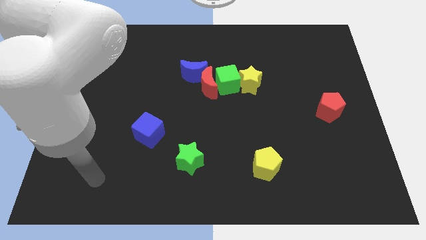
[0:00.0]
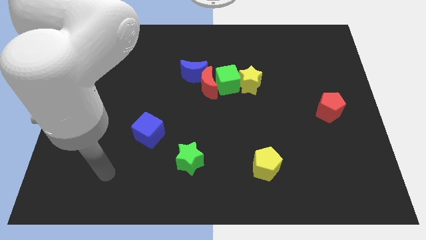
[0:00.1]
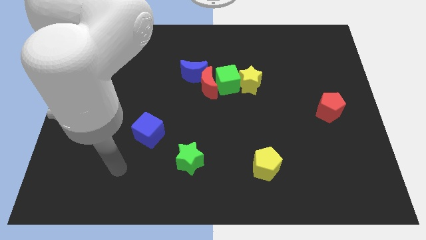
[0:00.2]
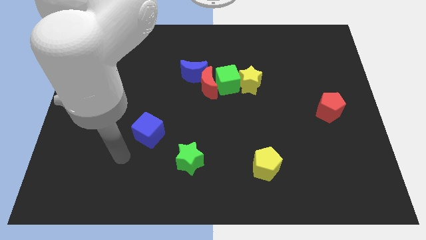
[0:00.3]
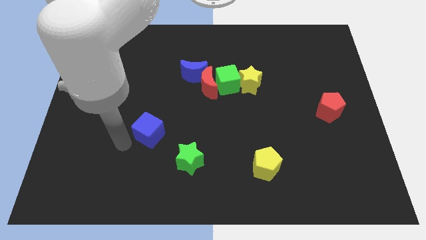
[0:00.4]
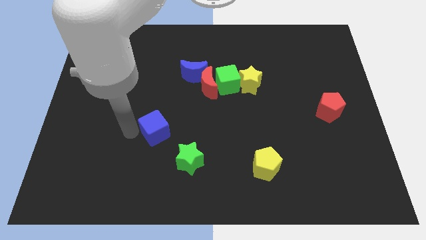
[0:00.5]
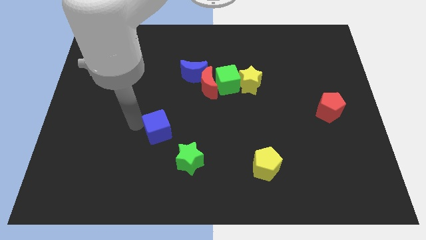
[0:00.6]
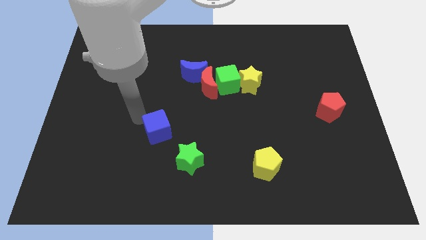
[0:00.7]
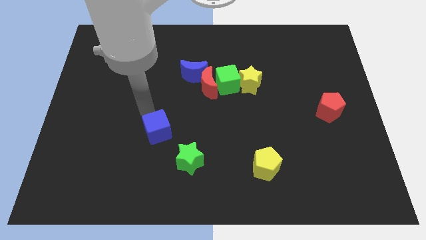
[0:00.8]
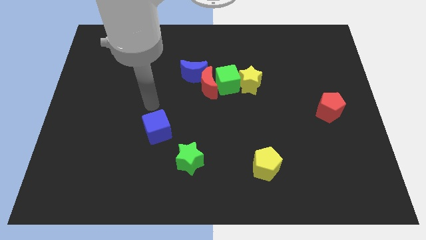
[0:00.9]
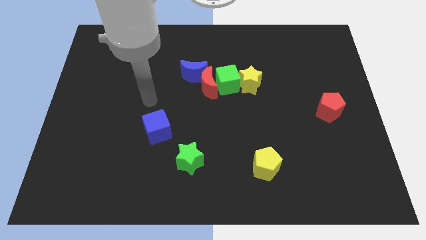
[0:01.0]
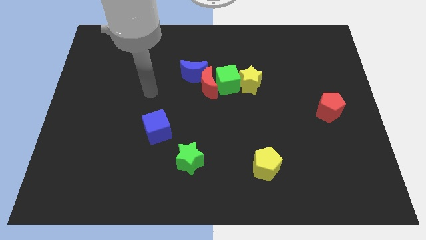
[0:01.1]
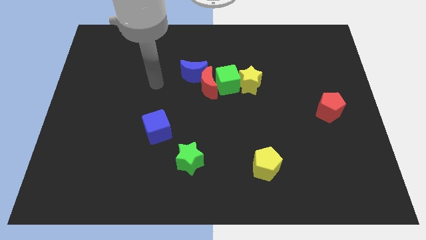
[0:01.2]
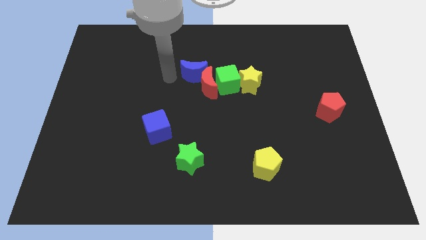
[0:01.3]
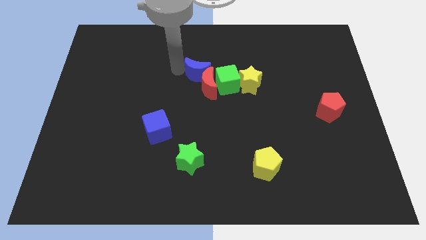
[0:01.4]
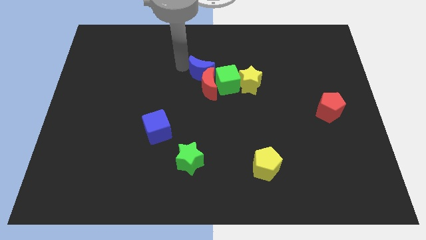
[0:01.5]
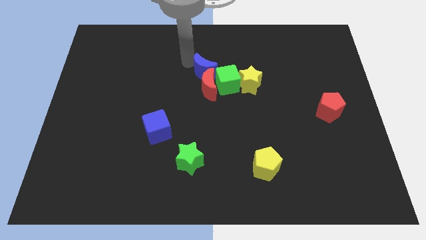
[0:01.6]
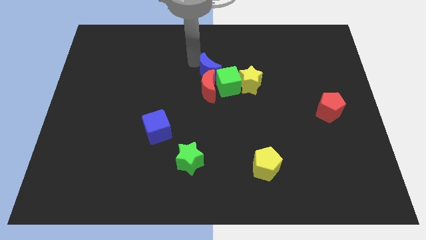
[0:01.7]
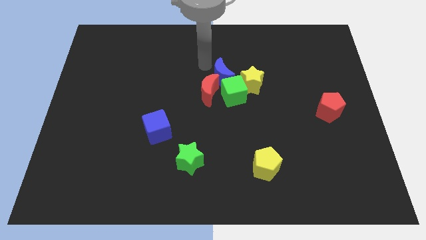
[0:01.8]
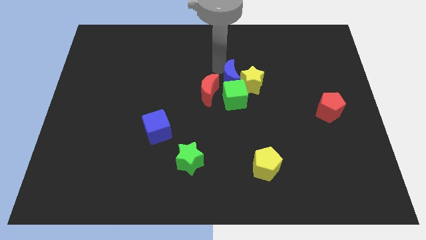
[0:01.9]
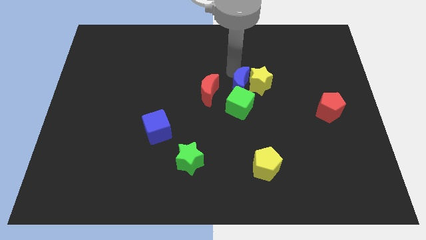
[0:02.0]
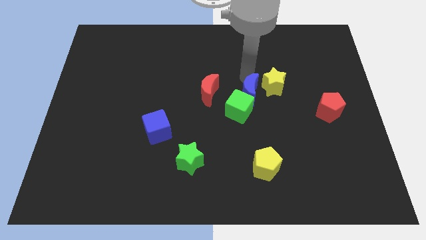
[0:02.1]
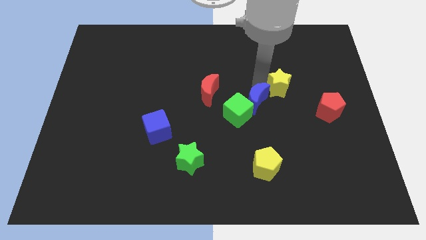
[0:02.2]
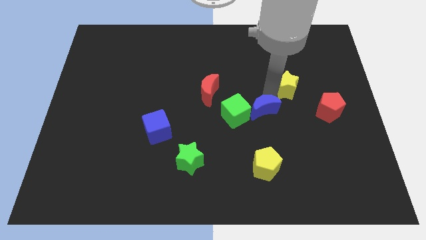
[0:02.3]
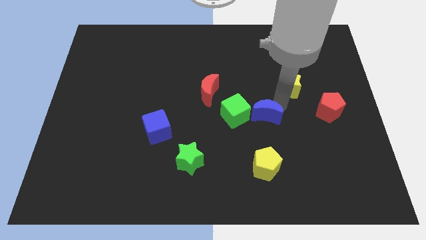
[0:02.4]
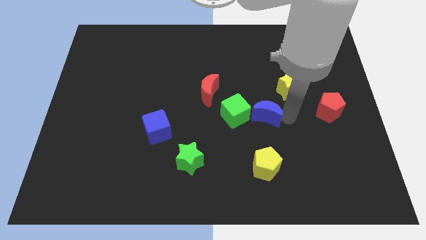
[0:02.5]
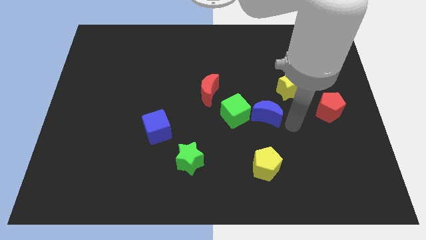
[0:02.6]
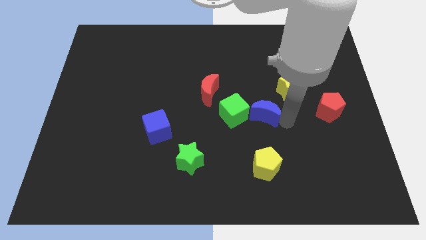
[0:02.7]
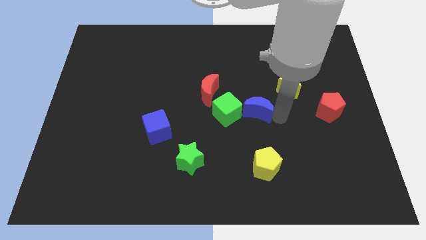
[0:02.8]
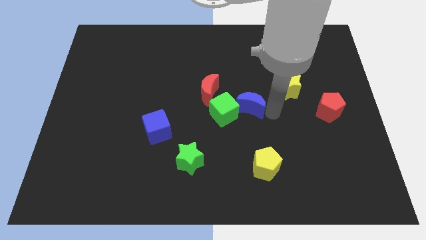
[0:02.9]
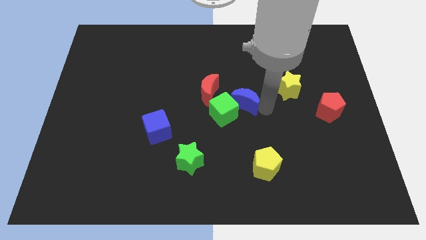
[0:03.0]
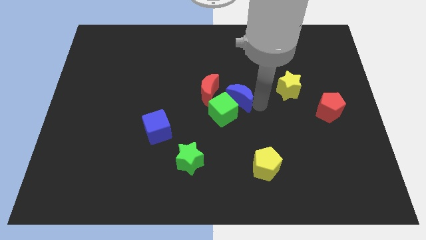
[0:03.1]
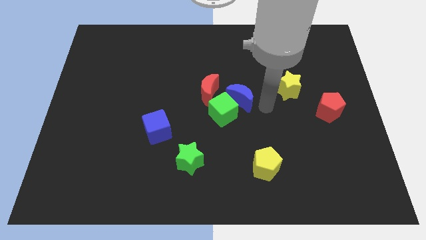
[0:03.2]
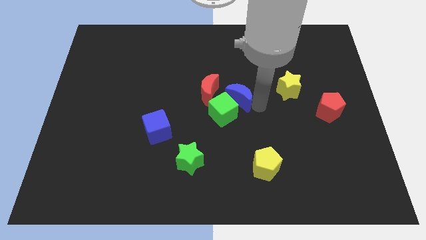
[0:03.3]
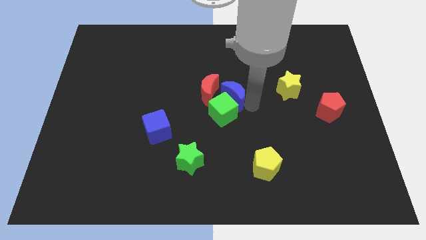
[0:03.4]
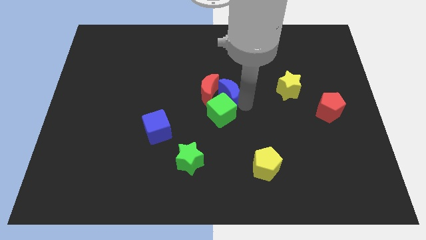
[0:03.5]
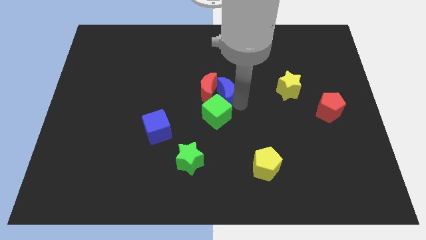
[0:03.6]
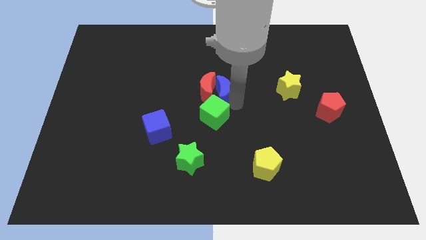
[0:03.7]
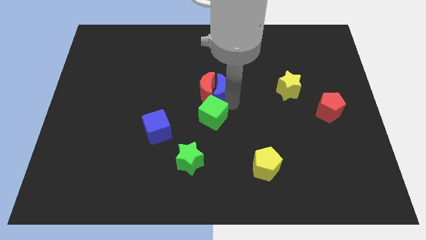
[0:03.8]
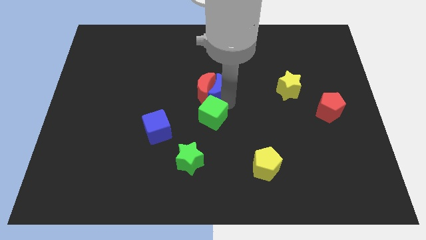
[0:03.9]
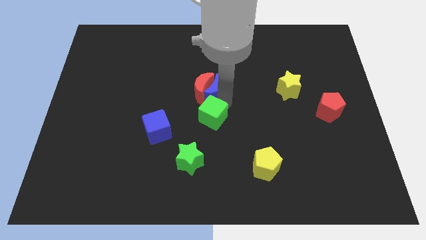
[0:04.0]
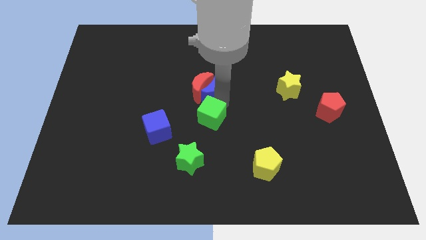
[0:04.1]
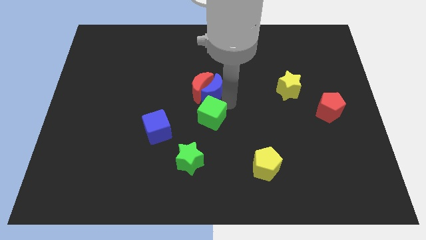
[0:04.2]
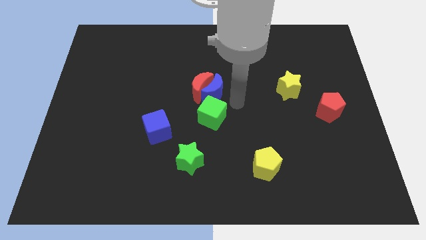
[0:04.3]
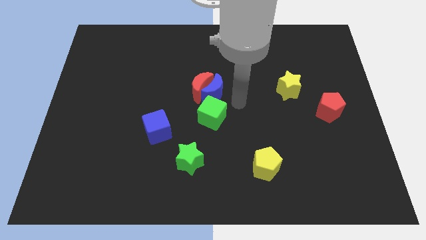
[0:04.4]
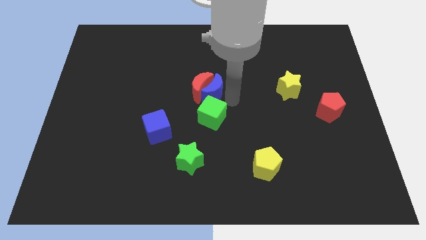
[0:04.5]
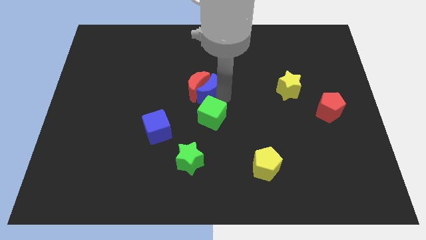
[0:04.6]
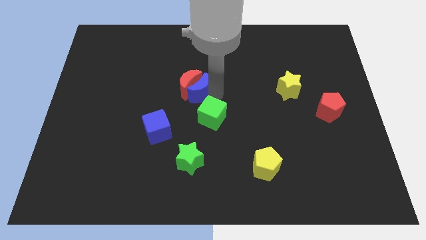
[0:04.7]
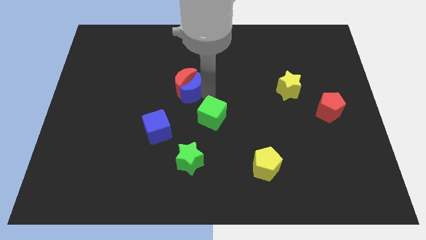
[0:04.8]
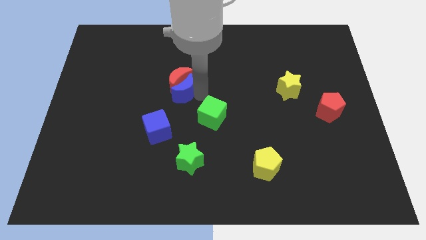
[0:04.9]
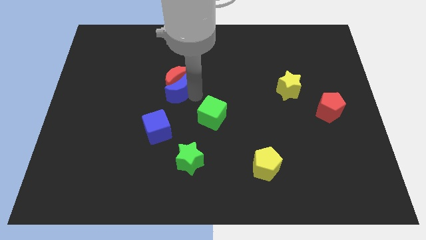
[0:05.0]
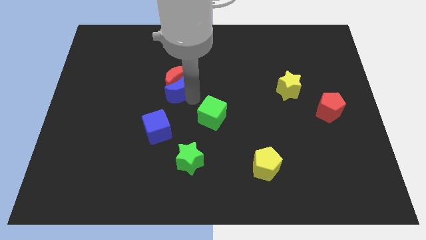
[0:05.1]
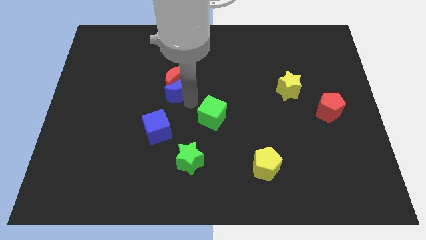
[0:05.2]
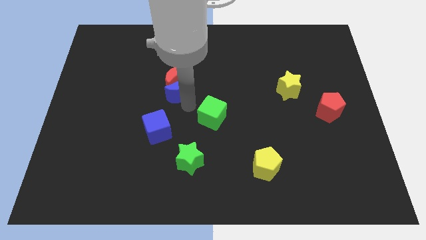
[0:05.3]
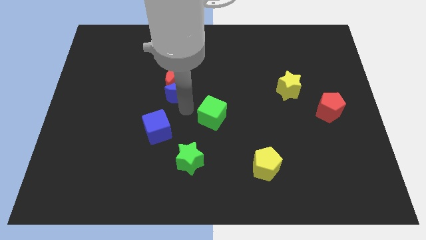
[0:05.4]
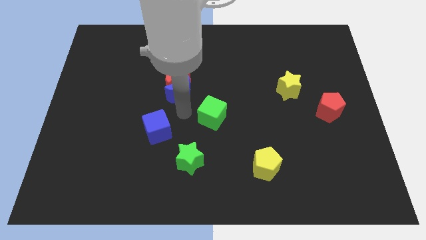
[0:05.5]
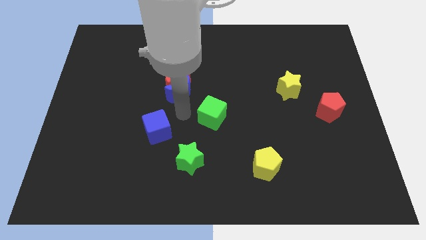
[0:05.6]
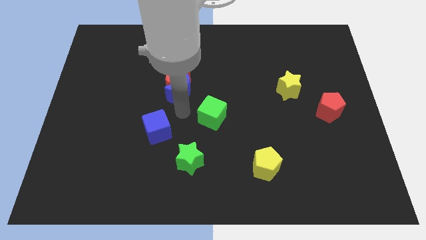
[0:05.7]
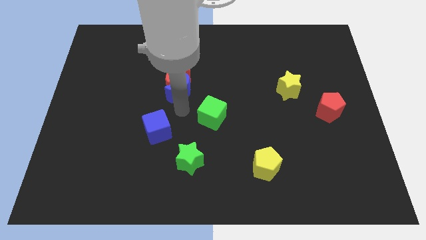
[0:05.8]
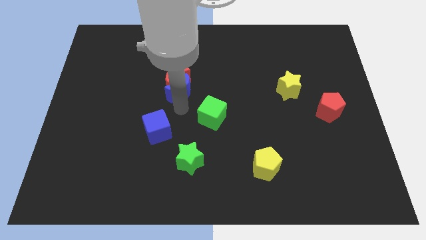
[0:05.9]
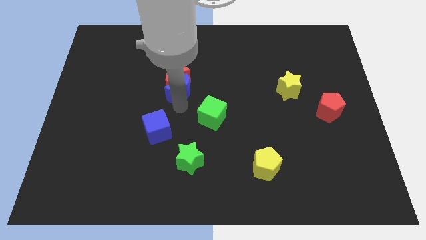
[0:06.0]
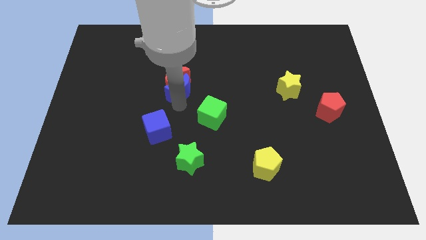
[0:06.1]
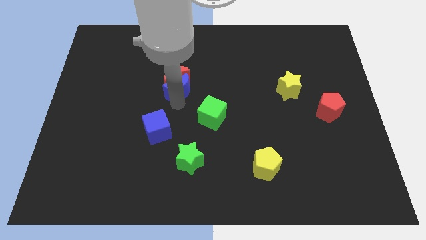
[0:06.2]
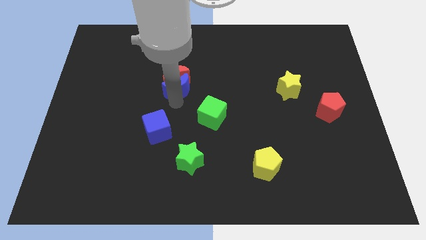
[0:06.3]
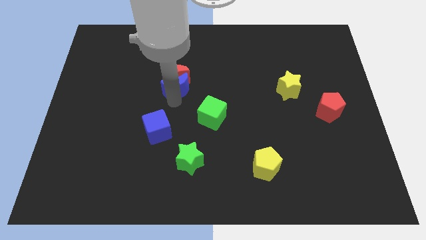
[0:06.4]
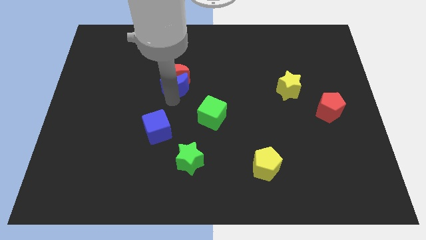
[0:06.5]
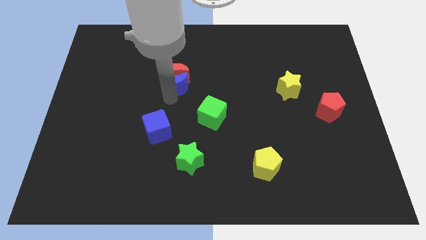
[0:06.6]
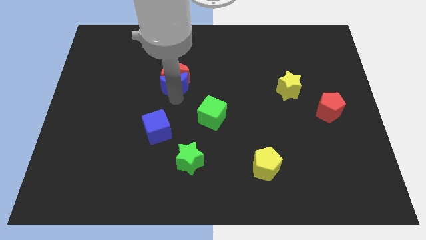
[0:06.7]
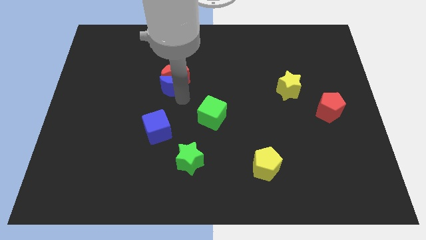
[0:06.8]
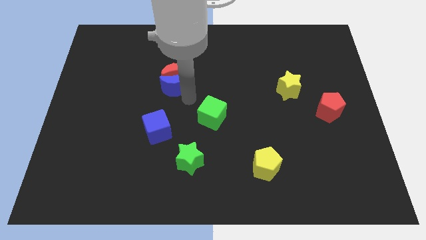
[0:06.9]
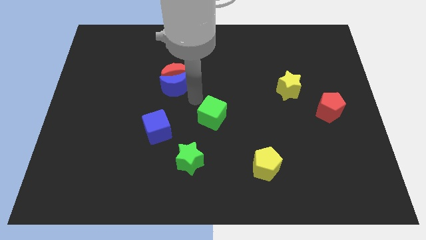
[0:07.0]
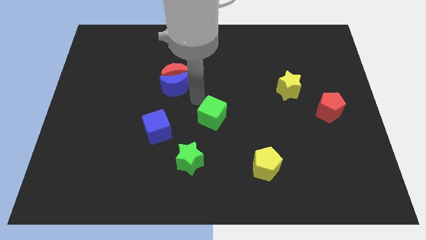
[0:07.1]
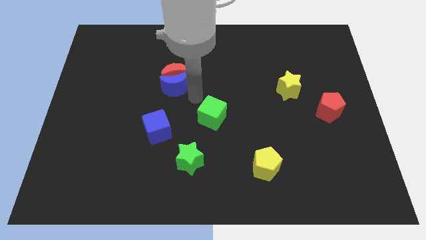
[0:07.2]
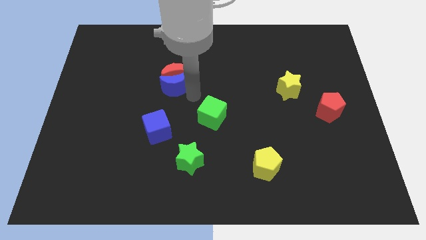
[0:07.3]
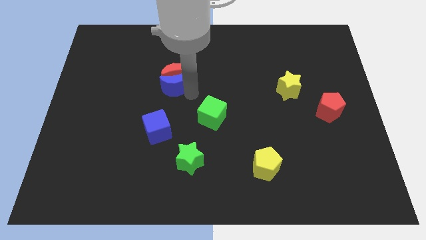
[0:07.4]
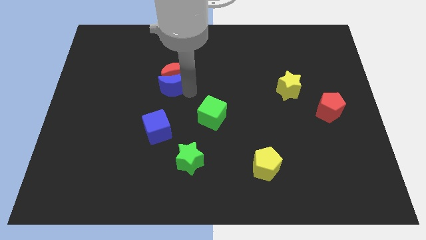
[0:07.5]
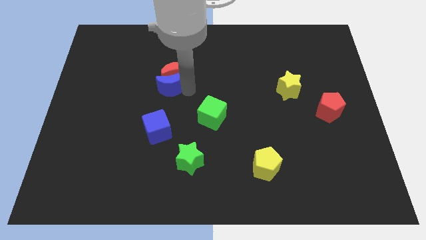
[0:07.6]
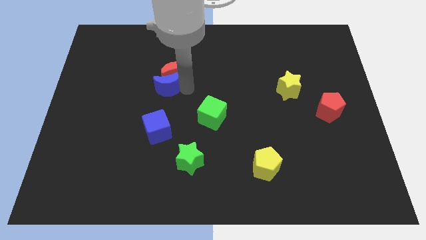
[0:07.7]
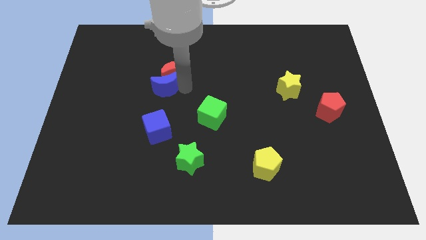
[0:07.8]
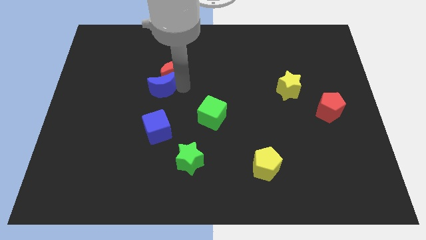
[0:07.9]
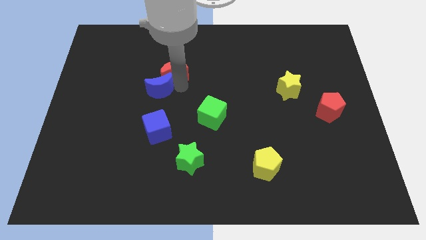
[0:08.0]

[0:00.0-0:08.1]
push the blue moon left a bit
